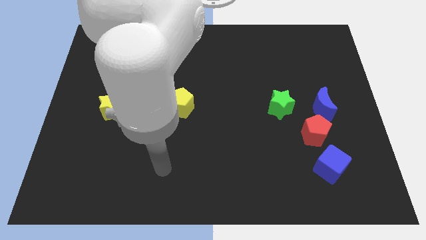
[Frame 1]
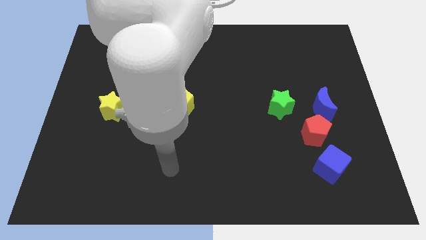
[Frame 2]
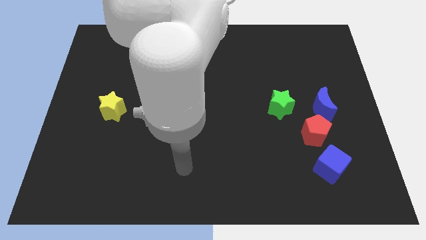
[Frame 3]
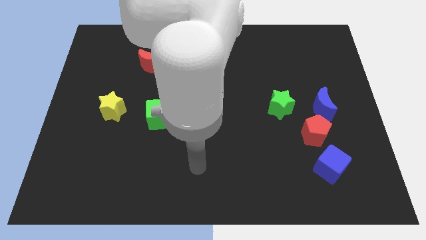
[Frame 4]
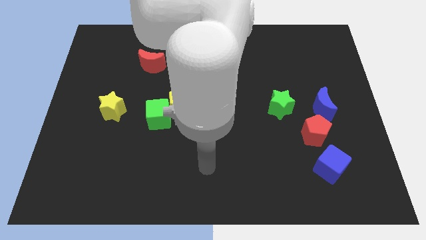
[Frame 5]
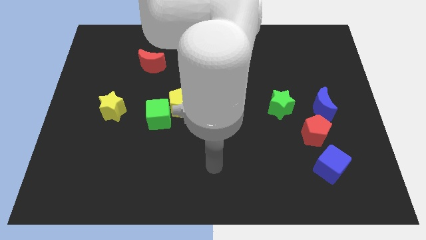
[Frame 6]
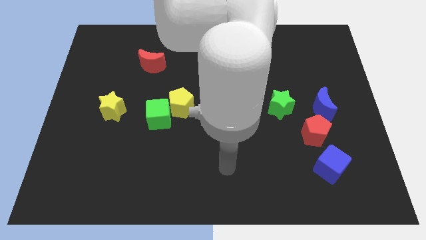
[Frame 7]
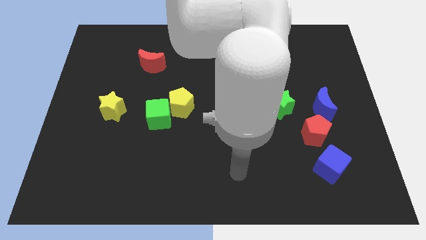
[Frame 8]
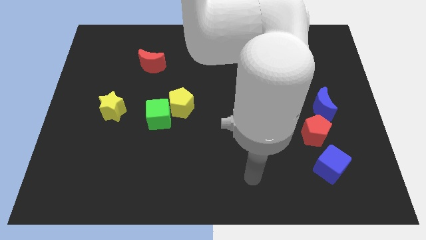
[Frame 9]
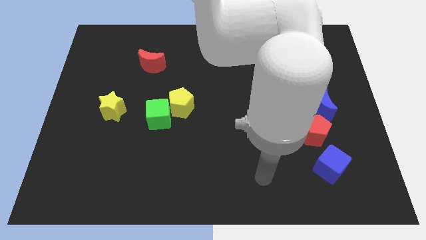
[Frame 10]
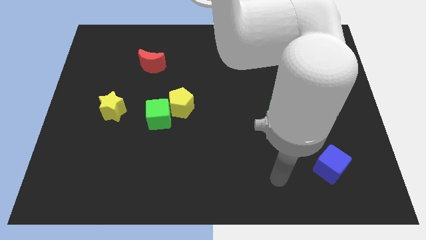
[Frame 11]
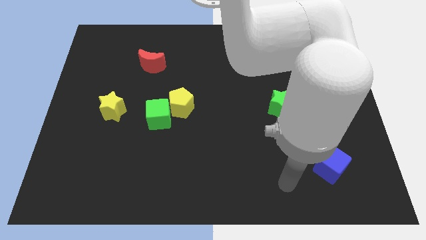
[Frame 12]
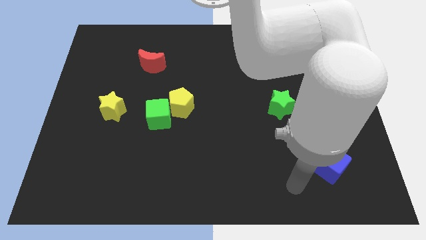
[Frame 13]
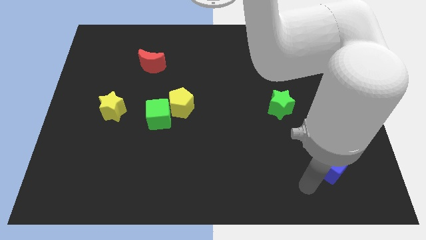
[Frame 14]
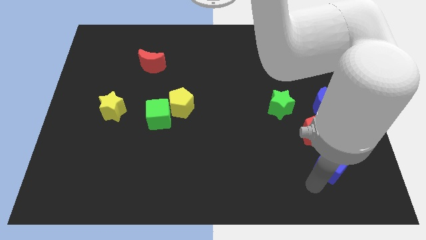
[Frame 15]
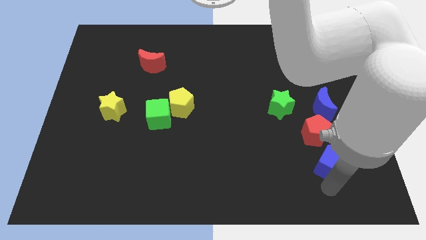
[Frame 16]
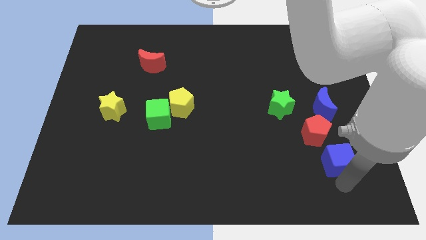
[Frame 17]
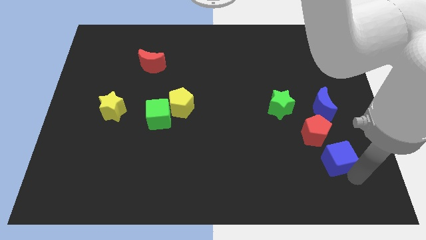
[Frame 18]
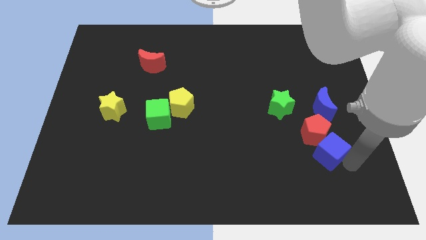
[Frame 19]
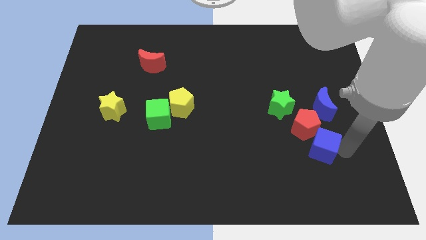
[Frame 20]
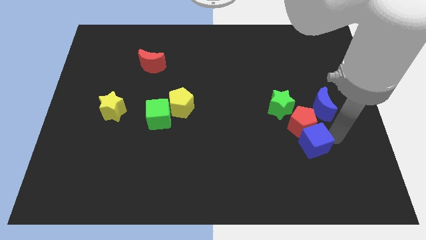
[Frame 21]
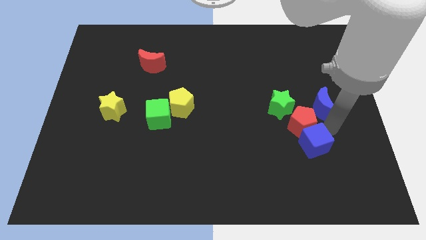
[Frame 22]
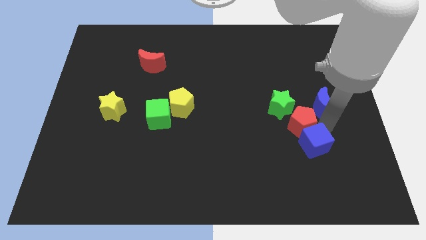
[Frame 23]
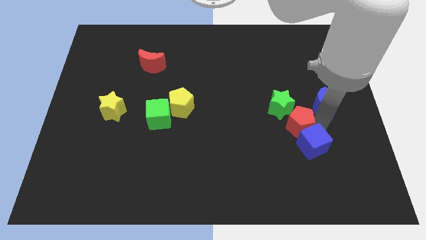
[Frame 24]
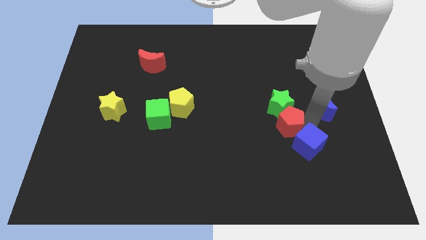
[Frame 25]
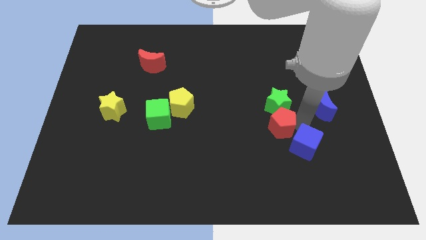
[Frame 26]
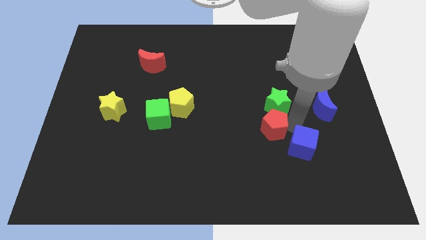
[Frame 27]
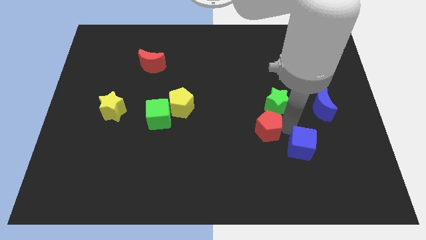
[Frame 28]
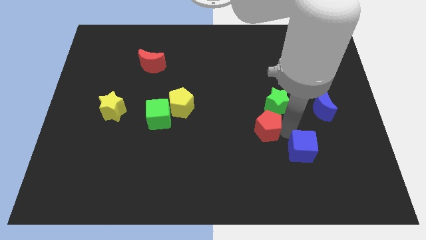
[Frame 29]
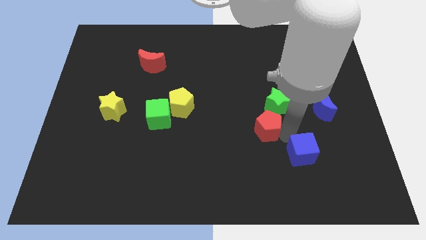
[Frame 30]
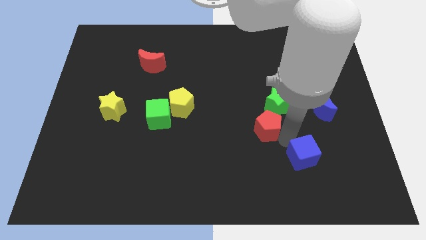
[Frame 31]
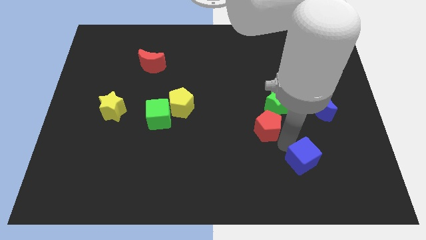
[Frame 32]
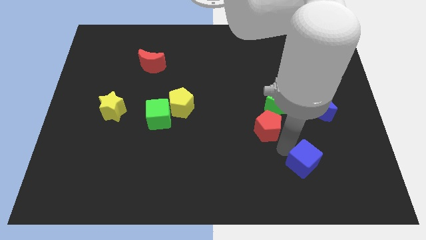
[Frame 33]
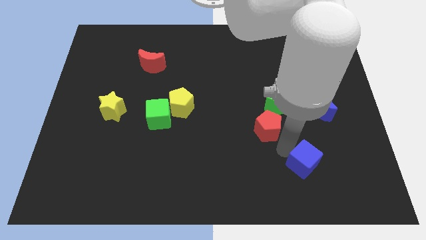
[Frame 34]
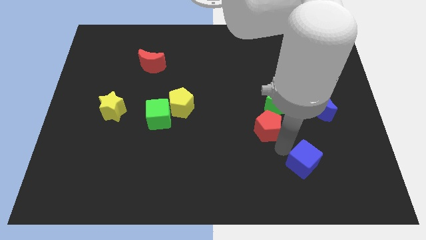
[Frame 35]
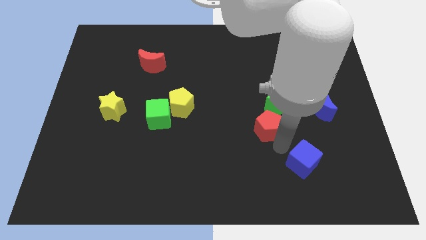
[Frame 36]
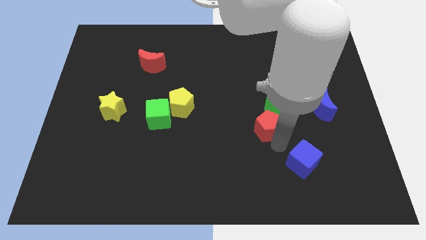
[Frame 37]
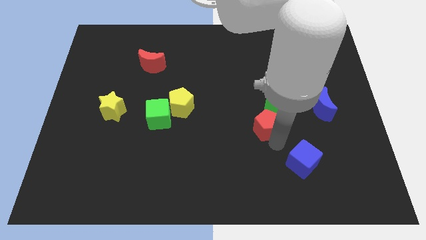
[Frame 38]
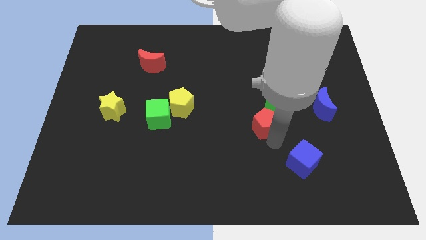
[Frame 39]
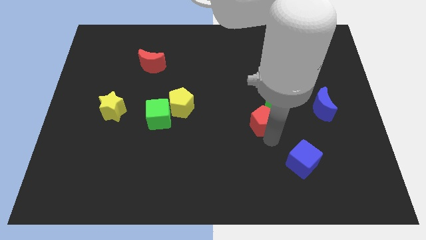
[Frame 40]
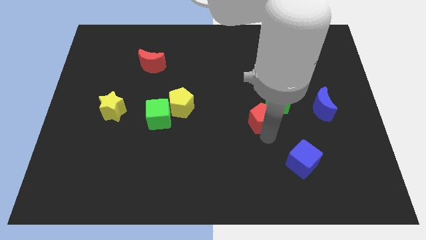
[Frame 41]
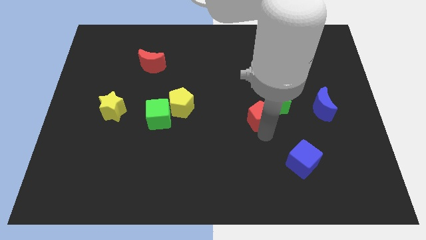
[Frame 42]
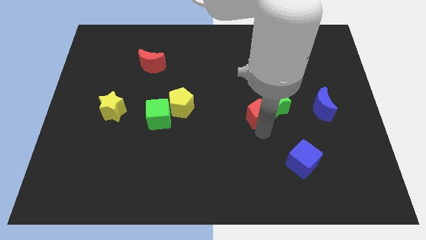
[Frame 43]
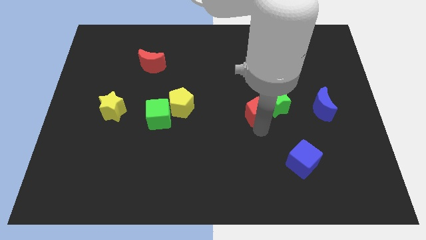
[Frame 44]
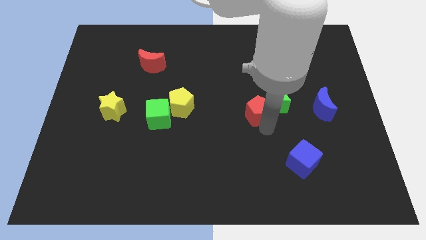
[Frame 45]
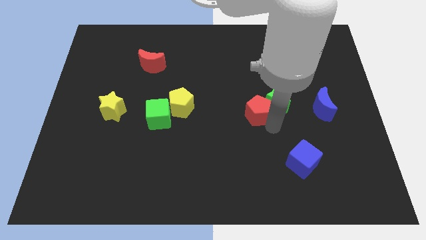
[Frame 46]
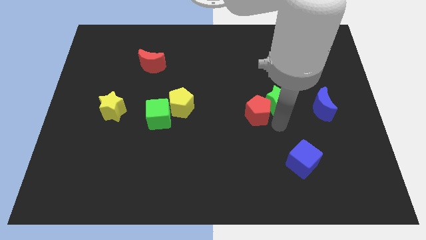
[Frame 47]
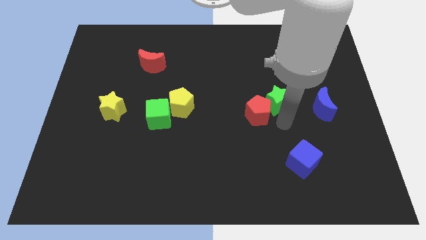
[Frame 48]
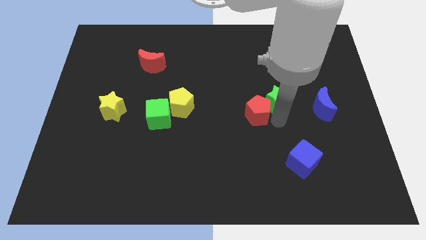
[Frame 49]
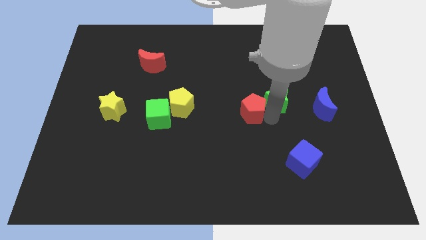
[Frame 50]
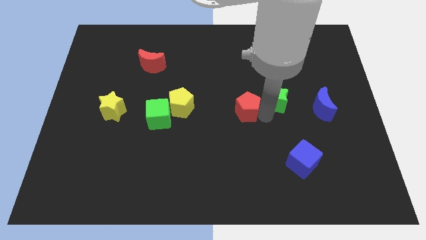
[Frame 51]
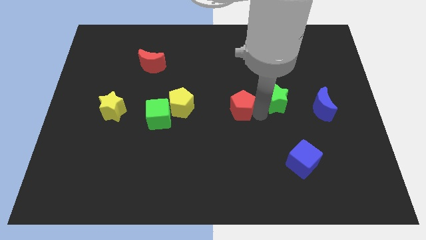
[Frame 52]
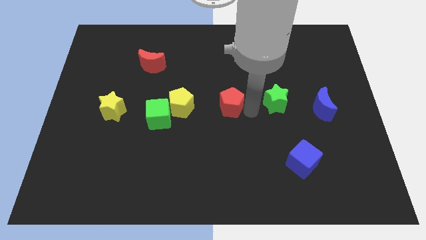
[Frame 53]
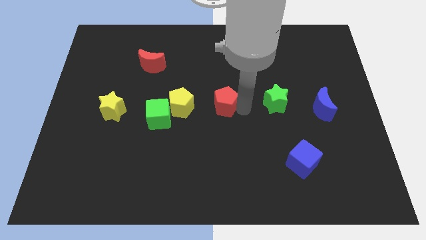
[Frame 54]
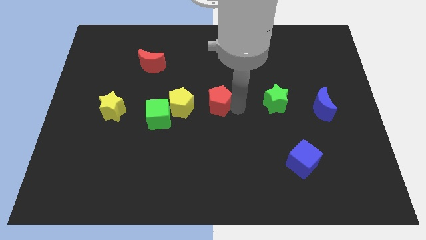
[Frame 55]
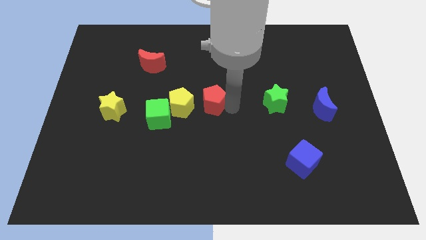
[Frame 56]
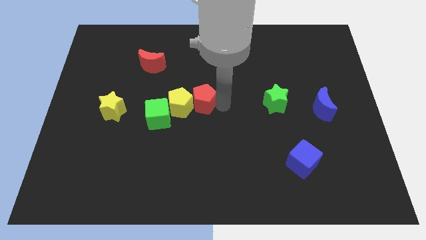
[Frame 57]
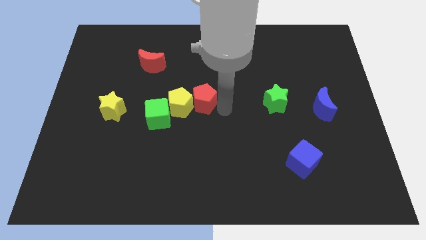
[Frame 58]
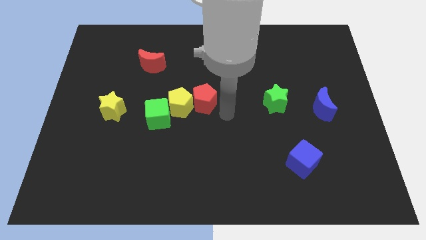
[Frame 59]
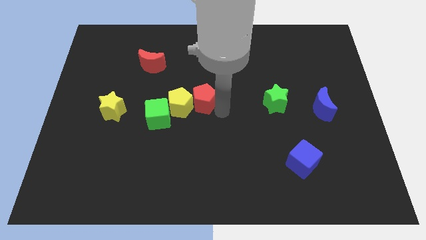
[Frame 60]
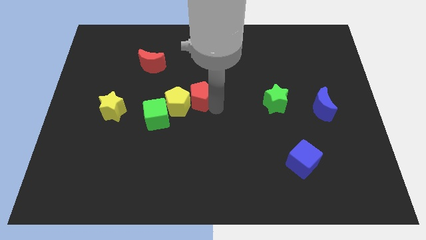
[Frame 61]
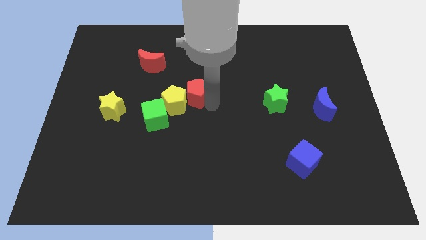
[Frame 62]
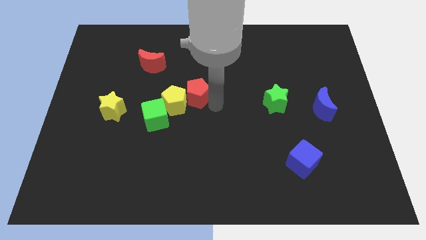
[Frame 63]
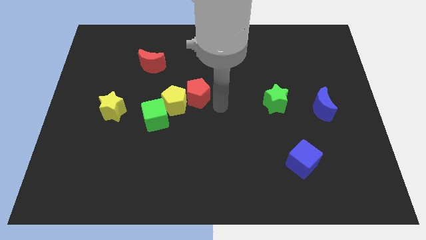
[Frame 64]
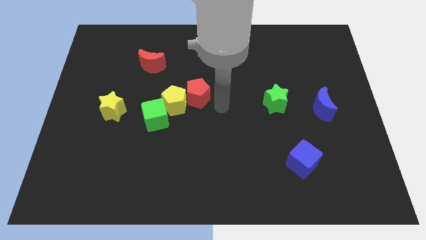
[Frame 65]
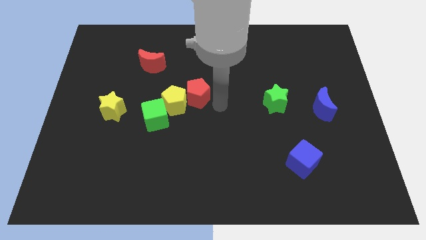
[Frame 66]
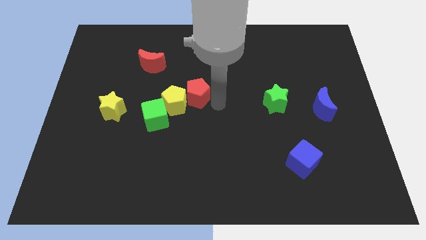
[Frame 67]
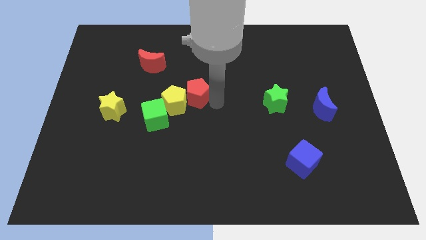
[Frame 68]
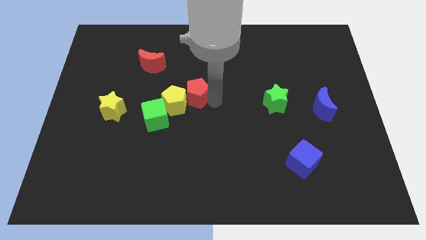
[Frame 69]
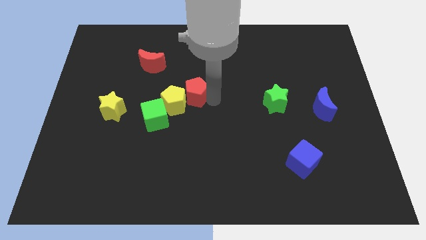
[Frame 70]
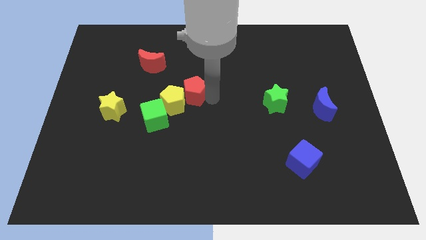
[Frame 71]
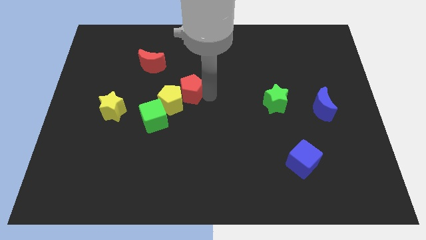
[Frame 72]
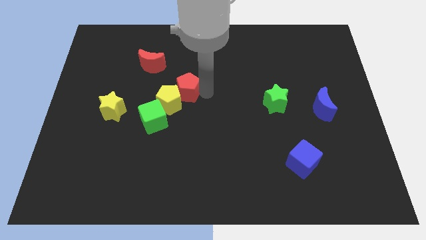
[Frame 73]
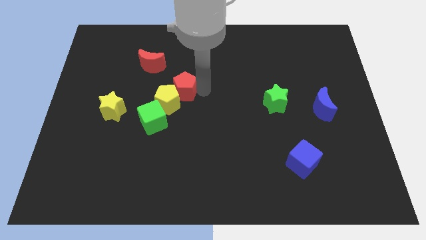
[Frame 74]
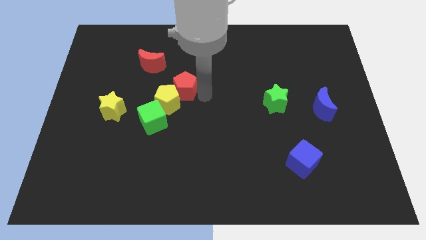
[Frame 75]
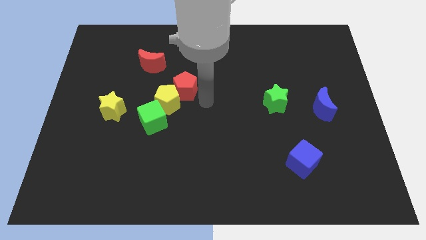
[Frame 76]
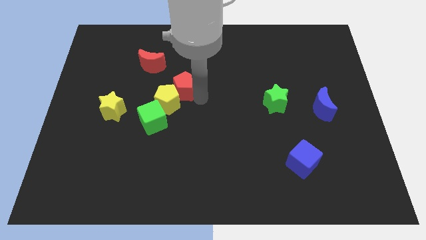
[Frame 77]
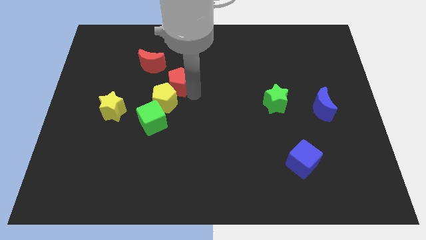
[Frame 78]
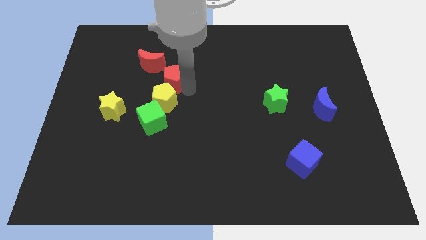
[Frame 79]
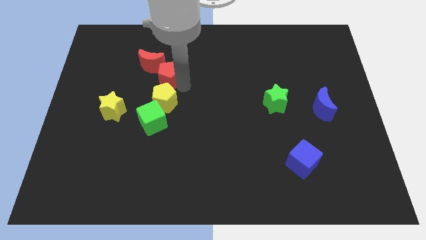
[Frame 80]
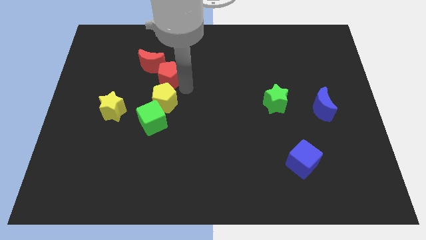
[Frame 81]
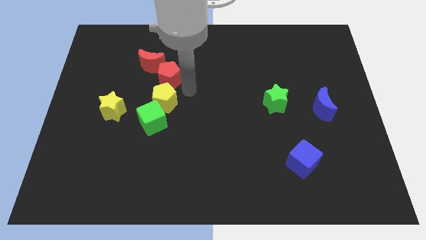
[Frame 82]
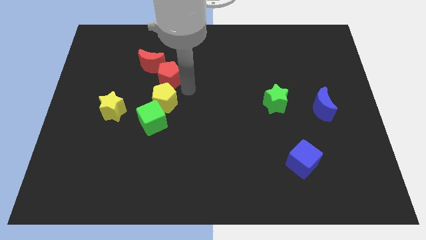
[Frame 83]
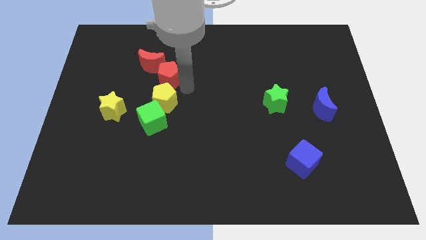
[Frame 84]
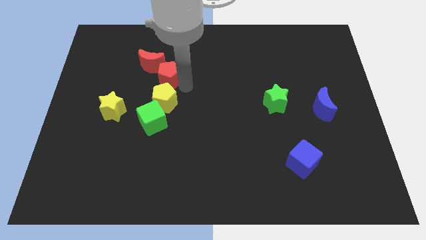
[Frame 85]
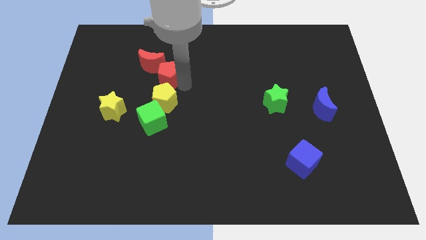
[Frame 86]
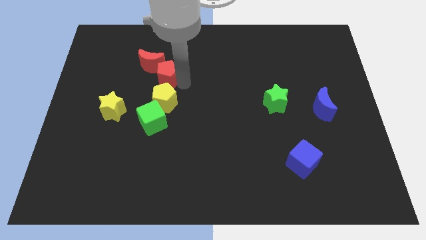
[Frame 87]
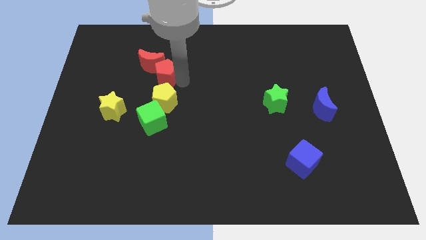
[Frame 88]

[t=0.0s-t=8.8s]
move the red pentagon close to the red moon
